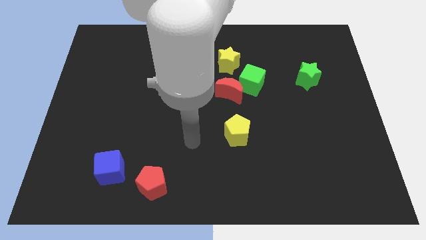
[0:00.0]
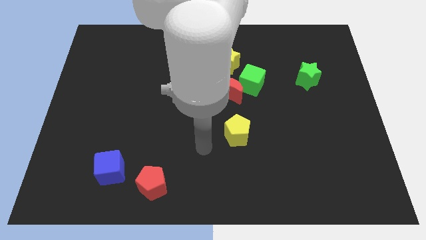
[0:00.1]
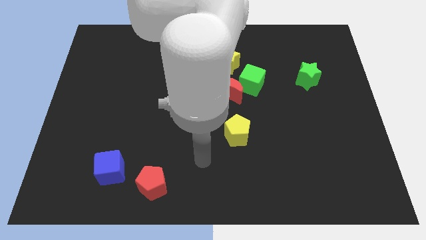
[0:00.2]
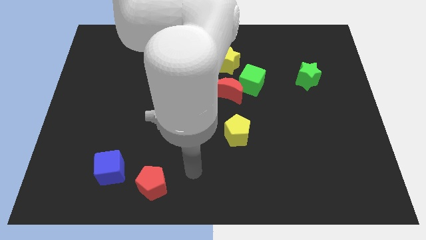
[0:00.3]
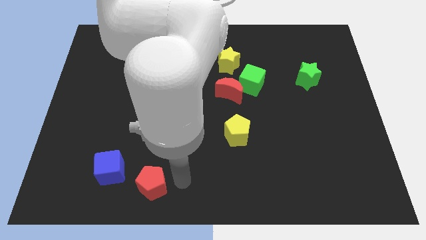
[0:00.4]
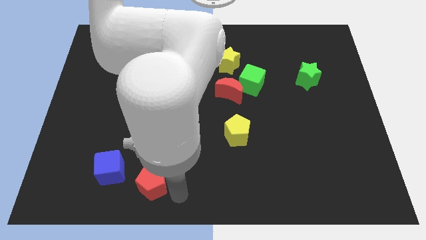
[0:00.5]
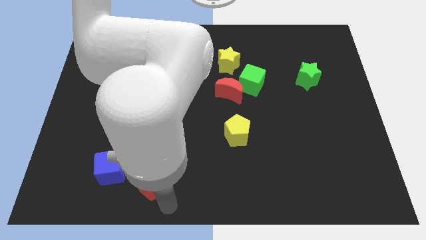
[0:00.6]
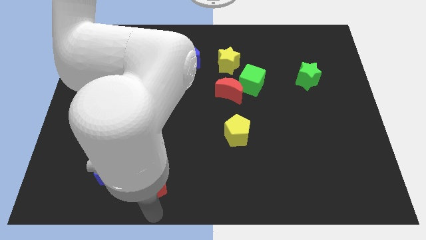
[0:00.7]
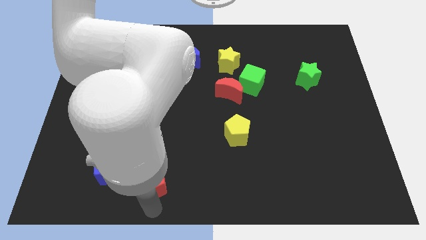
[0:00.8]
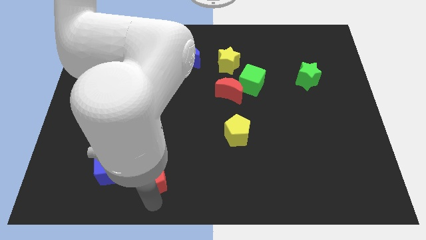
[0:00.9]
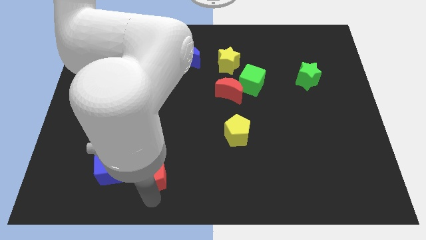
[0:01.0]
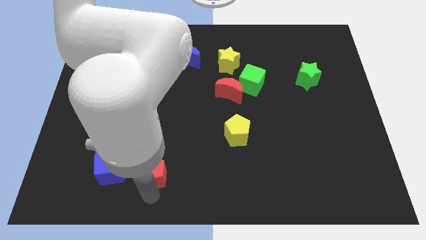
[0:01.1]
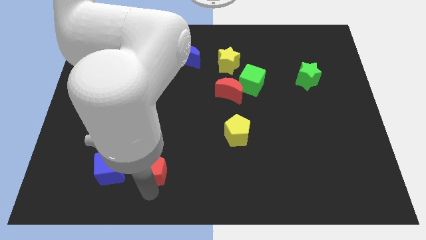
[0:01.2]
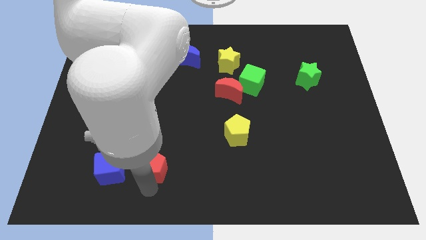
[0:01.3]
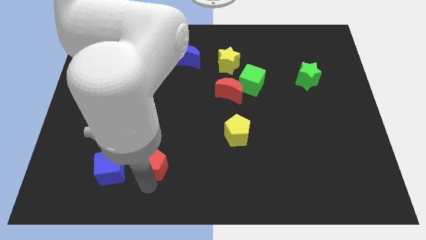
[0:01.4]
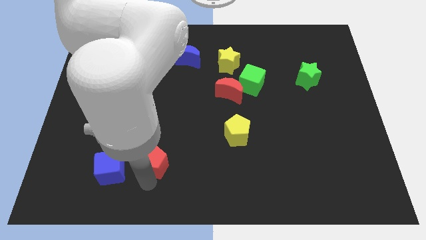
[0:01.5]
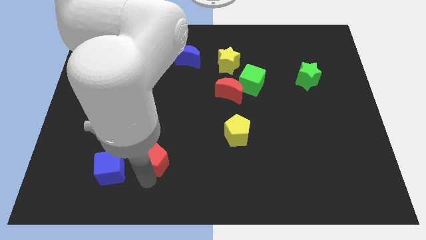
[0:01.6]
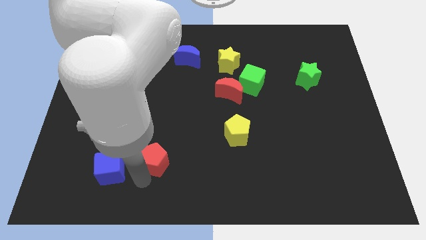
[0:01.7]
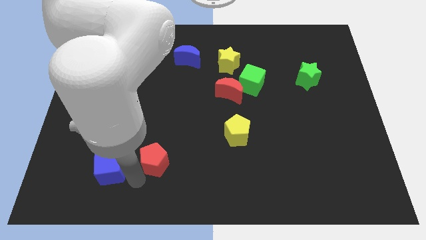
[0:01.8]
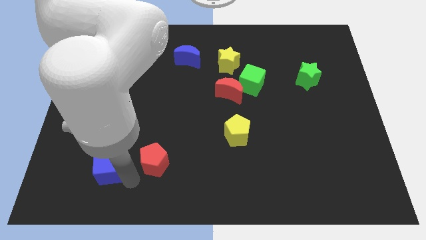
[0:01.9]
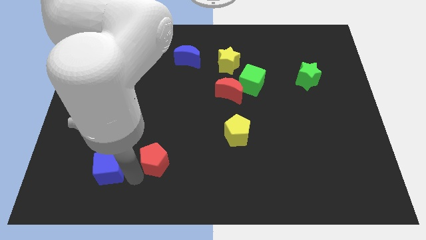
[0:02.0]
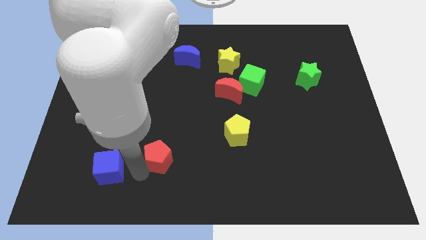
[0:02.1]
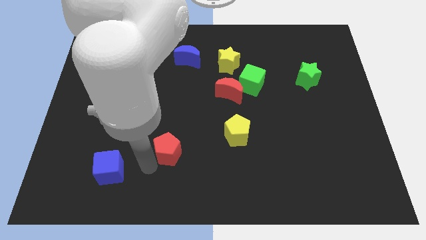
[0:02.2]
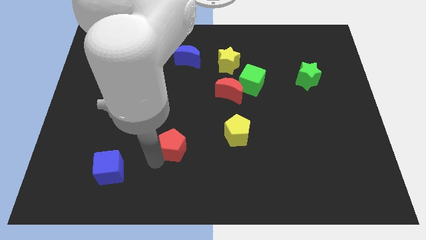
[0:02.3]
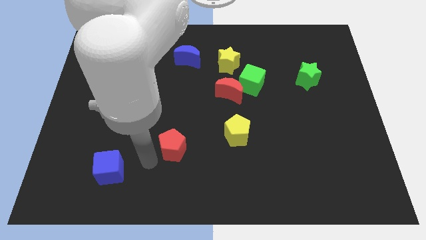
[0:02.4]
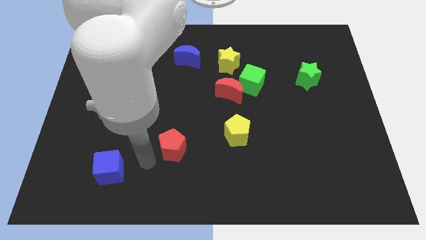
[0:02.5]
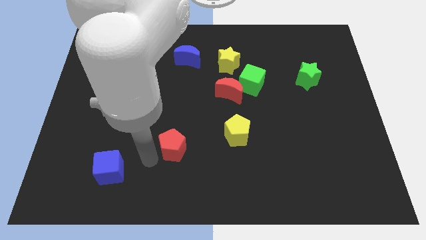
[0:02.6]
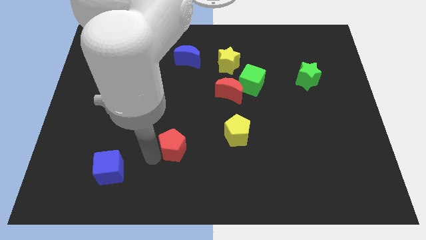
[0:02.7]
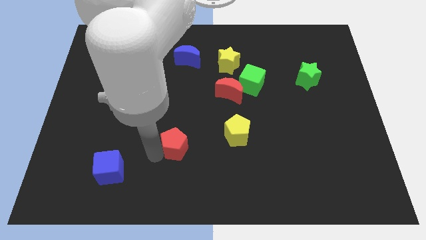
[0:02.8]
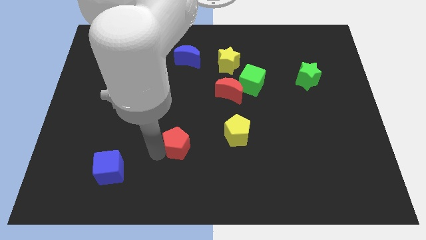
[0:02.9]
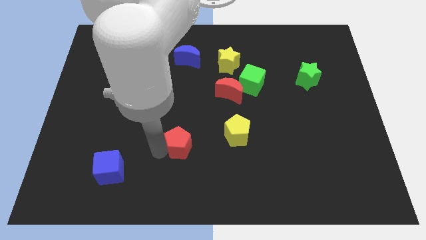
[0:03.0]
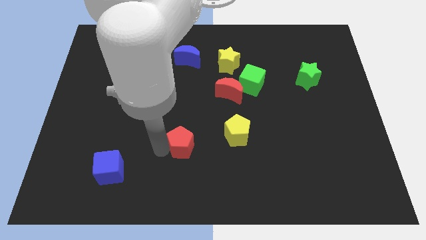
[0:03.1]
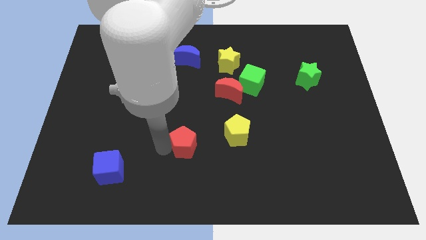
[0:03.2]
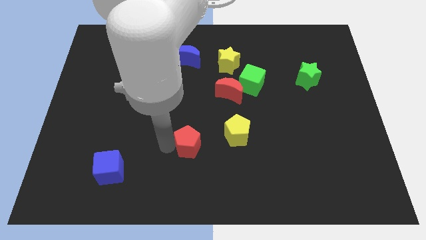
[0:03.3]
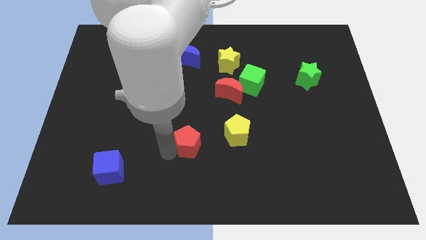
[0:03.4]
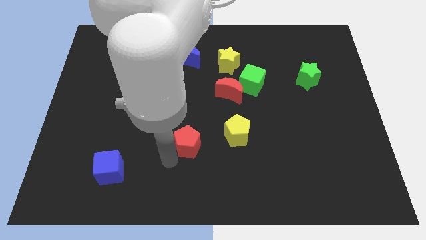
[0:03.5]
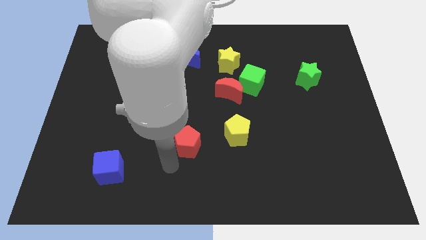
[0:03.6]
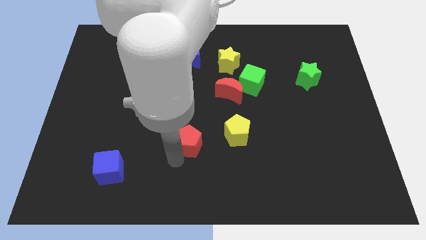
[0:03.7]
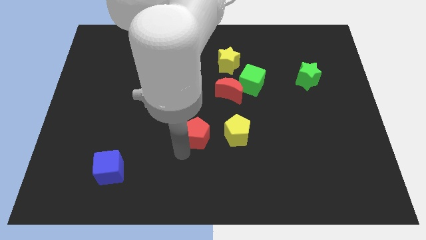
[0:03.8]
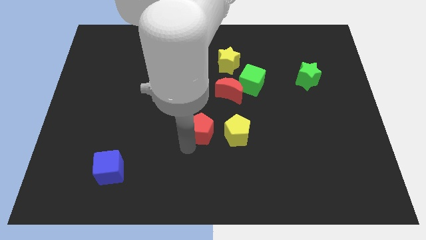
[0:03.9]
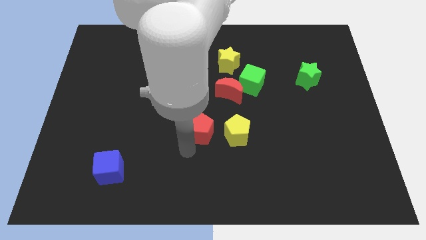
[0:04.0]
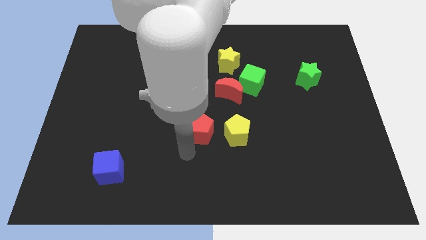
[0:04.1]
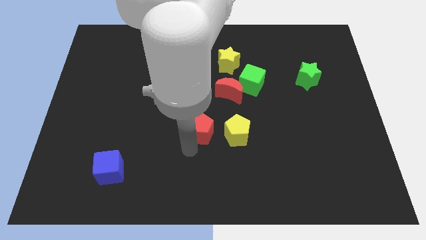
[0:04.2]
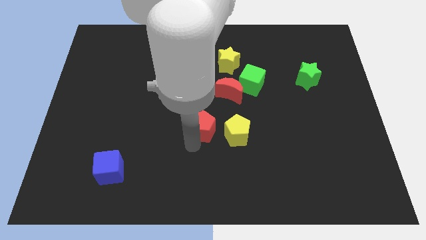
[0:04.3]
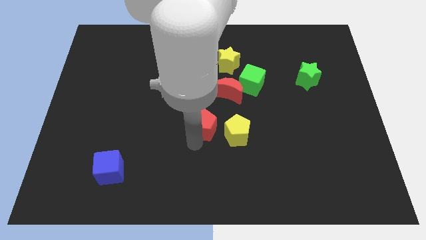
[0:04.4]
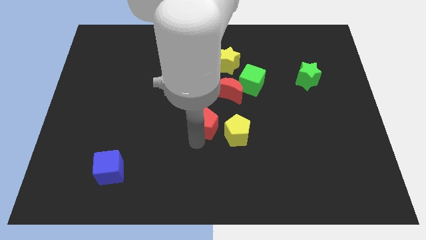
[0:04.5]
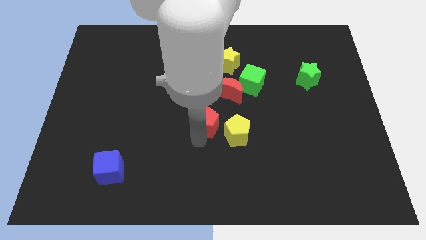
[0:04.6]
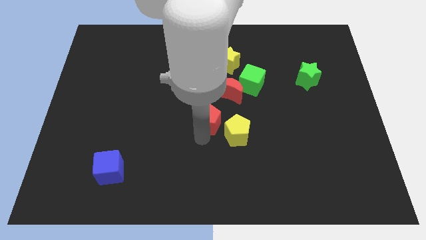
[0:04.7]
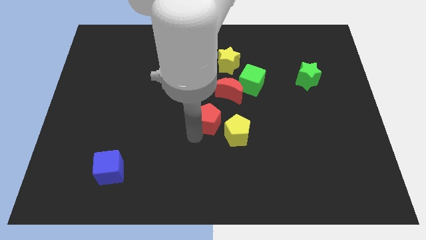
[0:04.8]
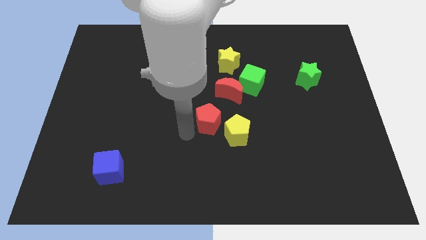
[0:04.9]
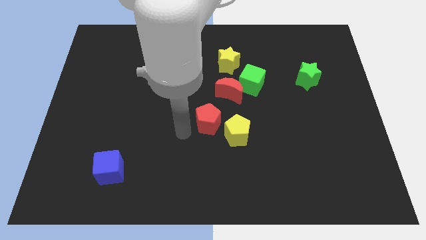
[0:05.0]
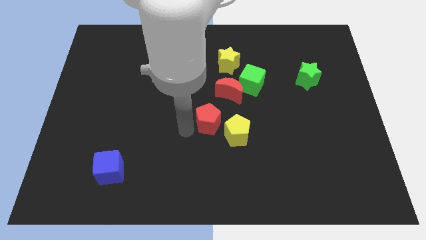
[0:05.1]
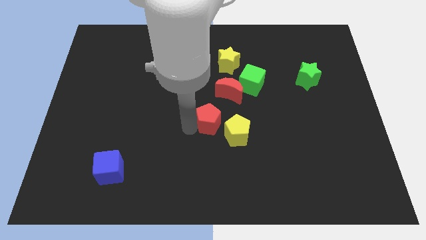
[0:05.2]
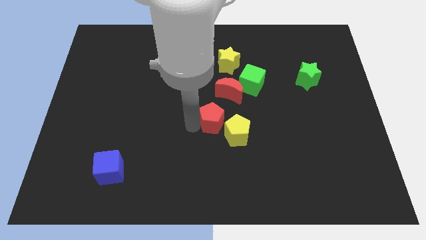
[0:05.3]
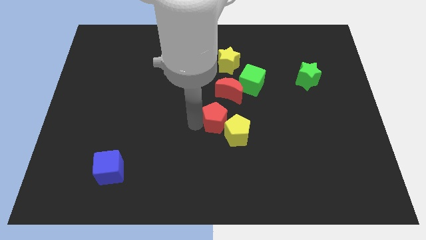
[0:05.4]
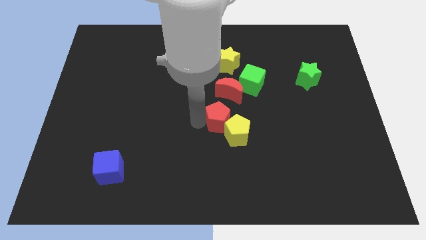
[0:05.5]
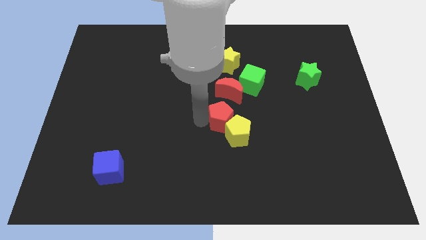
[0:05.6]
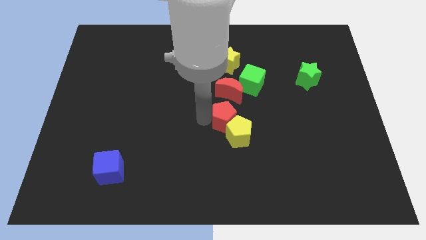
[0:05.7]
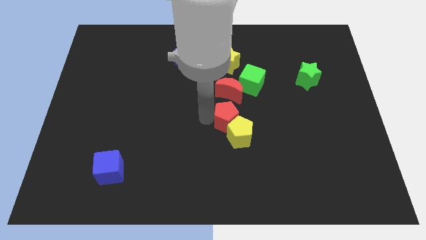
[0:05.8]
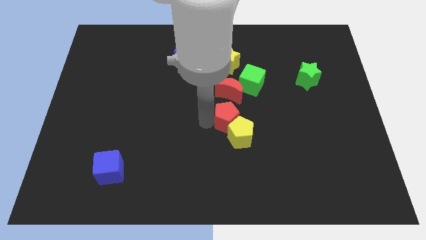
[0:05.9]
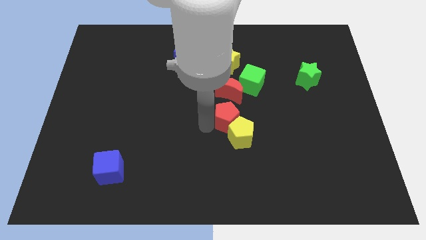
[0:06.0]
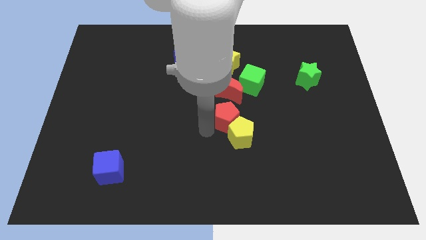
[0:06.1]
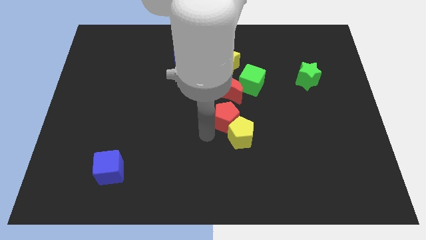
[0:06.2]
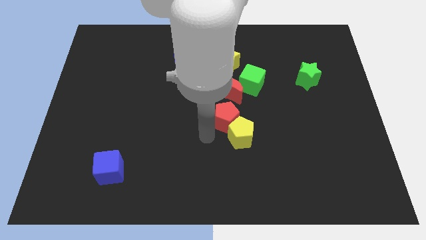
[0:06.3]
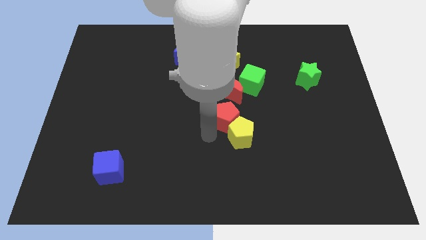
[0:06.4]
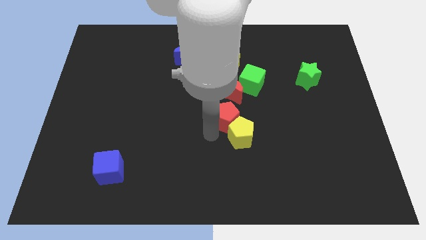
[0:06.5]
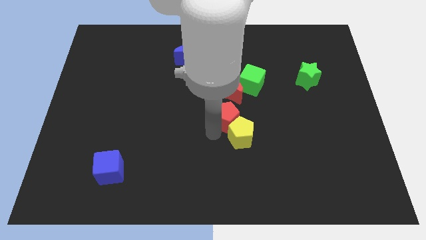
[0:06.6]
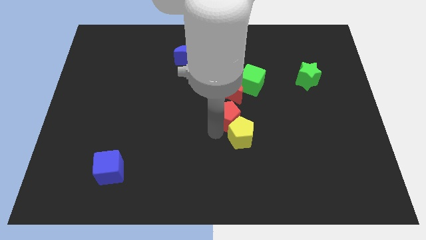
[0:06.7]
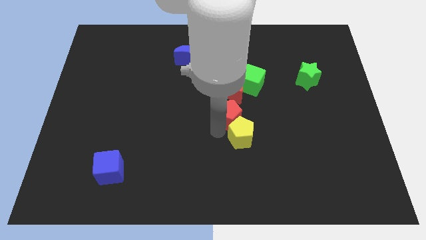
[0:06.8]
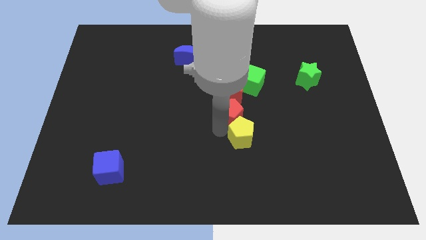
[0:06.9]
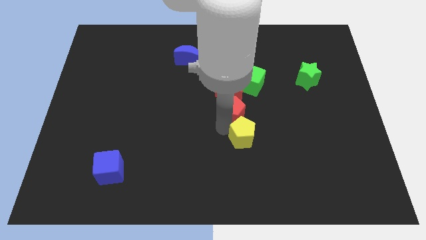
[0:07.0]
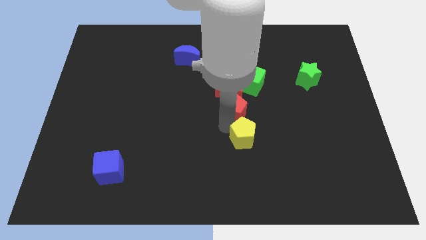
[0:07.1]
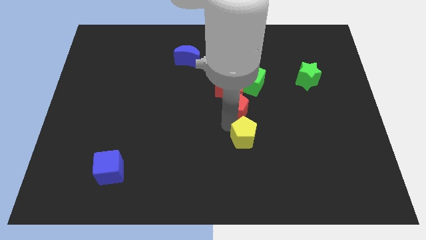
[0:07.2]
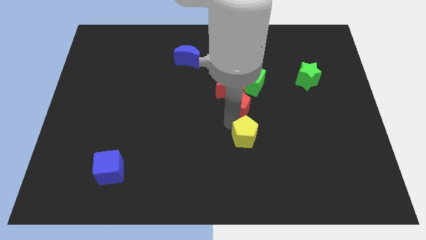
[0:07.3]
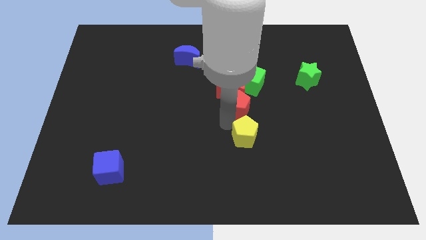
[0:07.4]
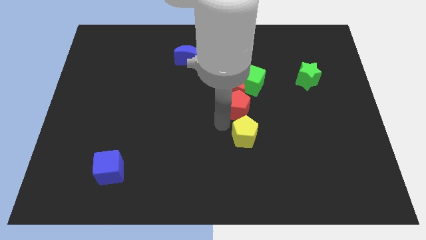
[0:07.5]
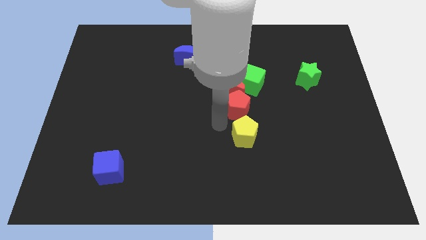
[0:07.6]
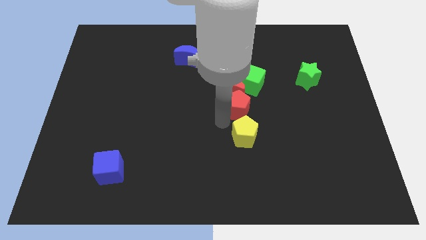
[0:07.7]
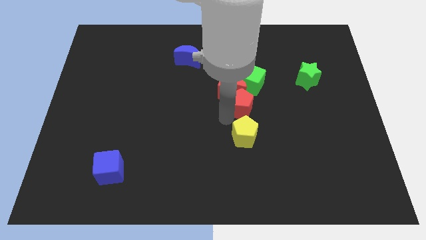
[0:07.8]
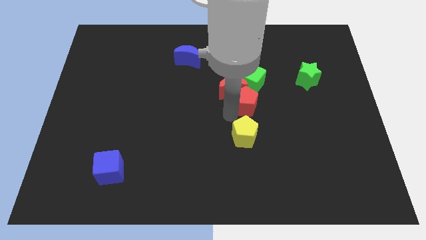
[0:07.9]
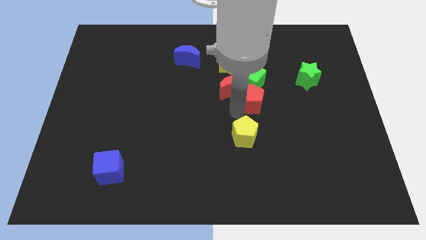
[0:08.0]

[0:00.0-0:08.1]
move the red pentagon close to the green cube
